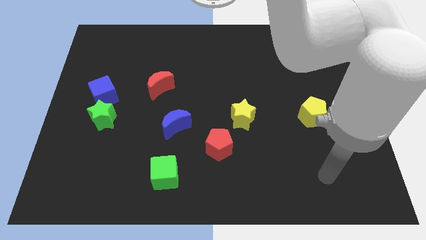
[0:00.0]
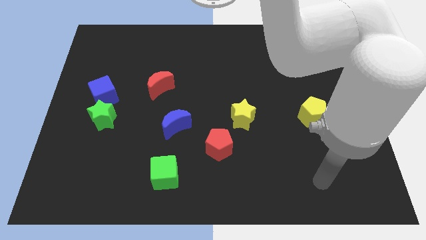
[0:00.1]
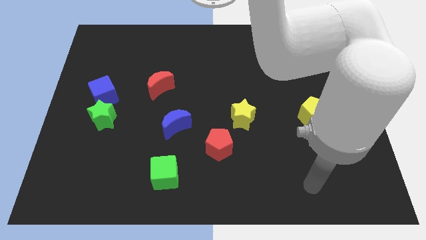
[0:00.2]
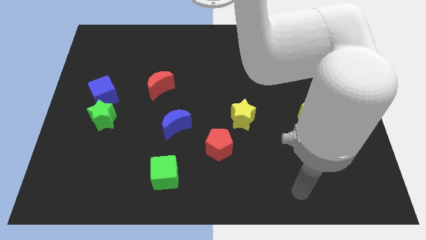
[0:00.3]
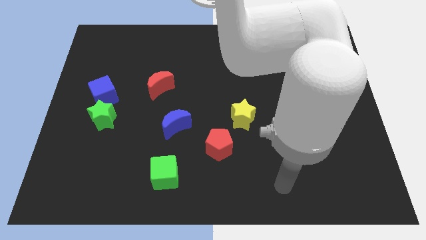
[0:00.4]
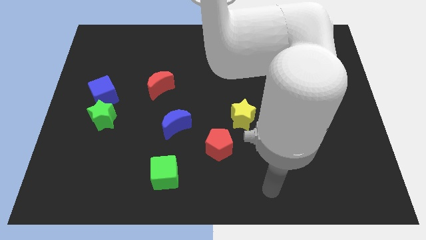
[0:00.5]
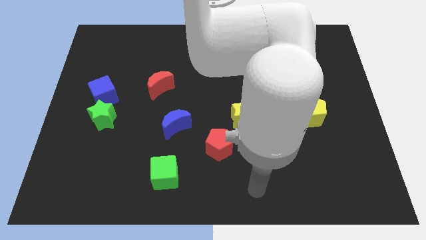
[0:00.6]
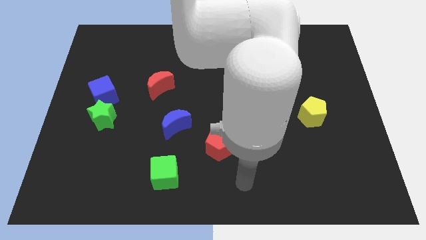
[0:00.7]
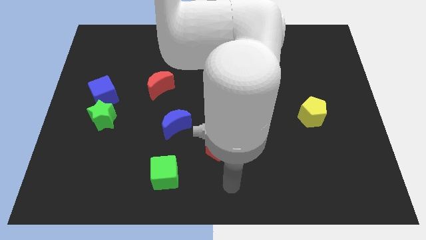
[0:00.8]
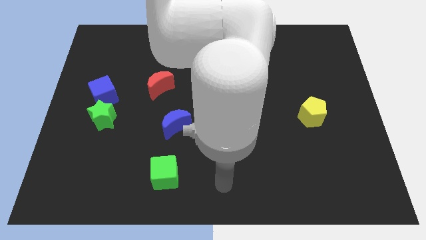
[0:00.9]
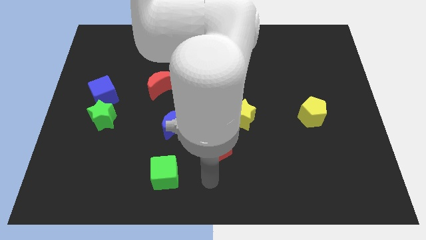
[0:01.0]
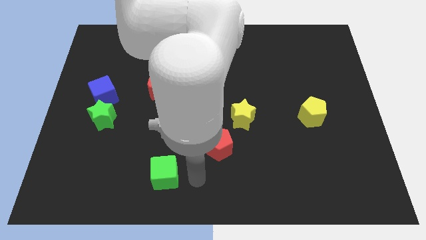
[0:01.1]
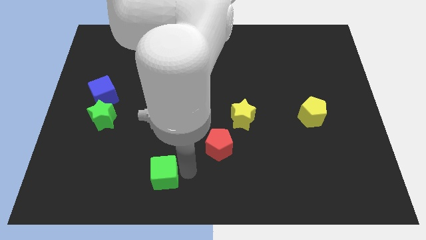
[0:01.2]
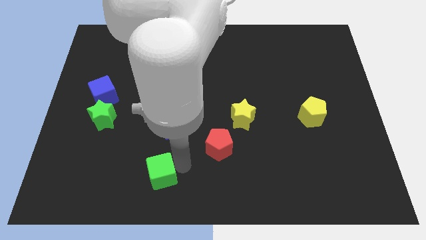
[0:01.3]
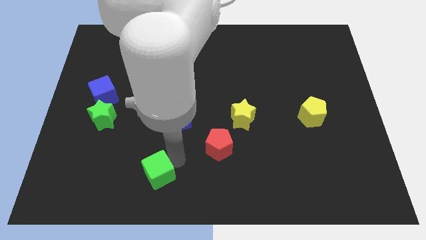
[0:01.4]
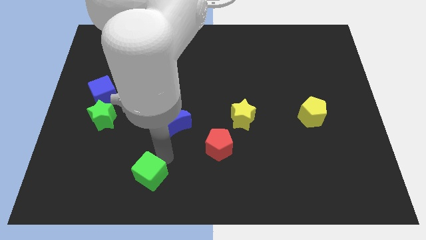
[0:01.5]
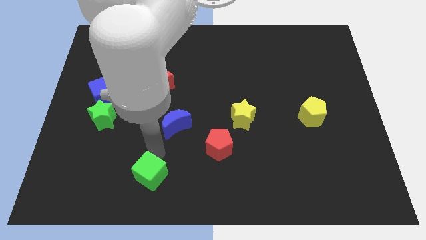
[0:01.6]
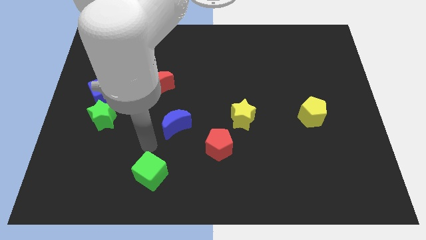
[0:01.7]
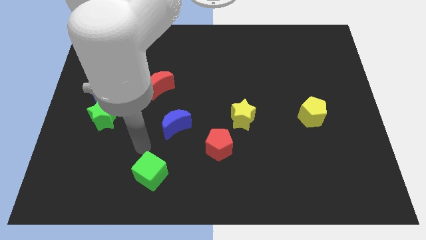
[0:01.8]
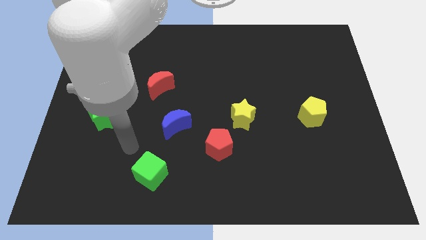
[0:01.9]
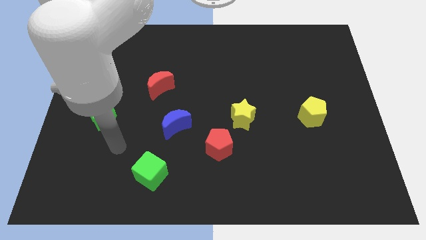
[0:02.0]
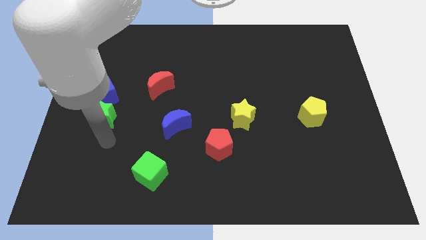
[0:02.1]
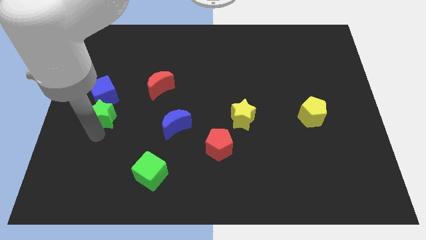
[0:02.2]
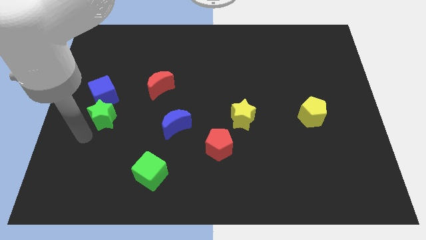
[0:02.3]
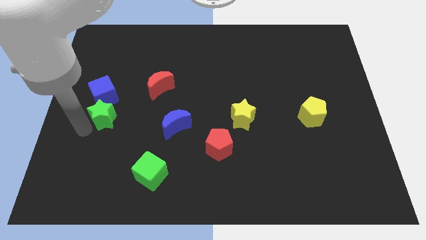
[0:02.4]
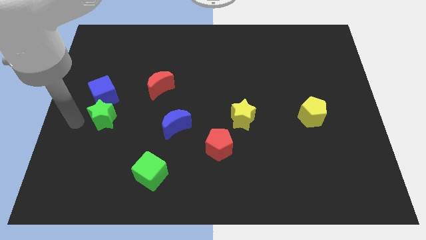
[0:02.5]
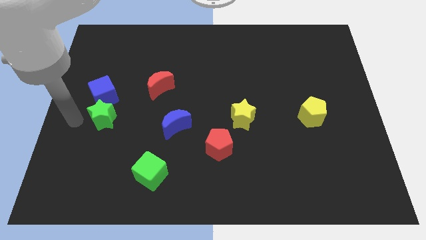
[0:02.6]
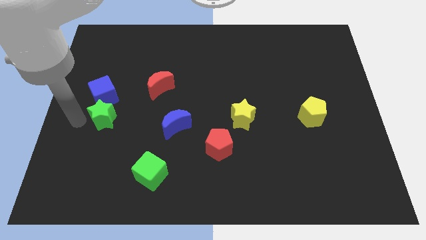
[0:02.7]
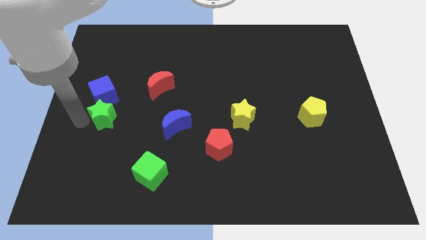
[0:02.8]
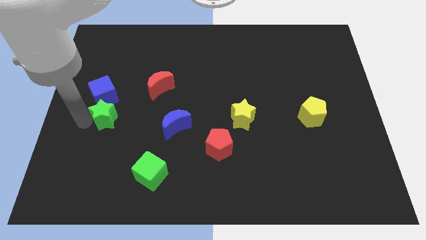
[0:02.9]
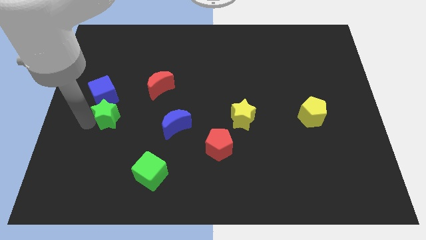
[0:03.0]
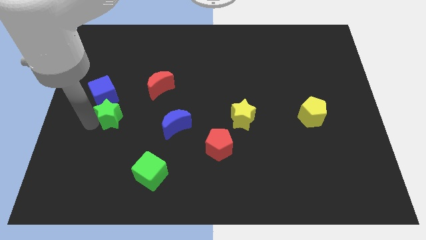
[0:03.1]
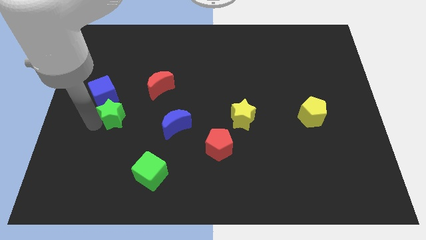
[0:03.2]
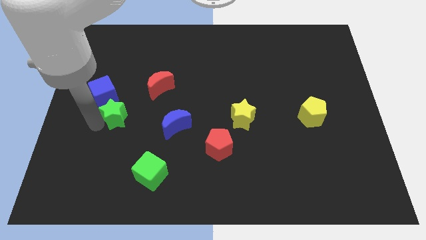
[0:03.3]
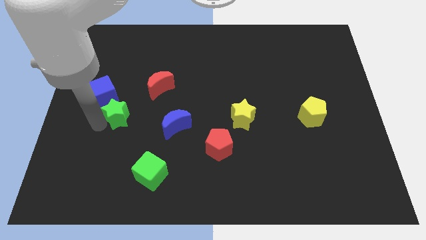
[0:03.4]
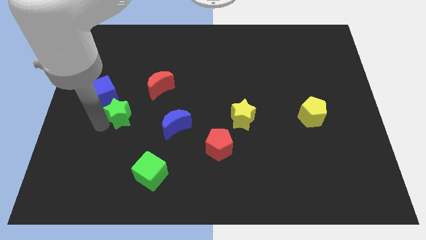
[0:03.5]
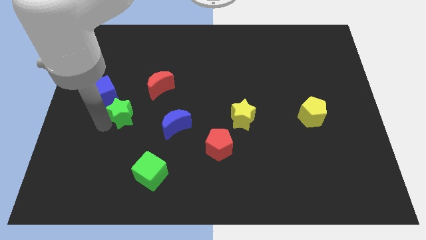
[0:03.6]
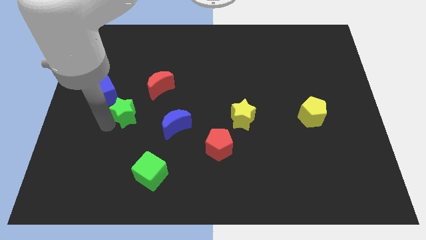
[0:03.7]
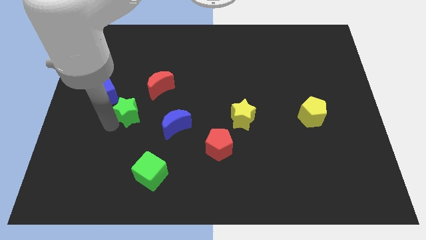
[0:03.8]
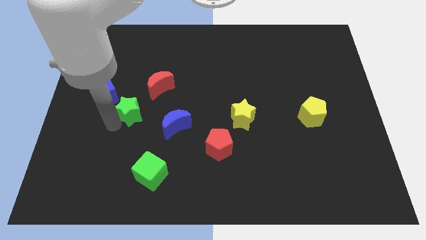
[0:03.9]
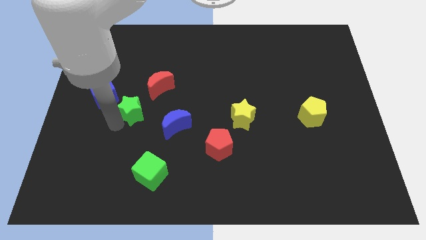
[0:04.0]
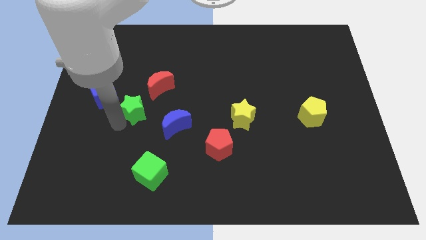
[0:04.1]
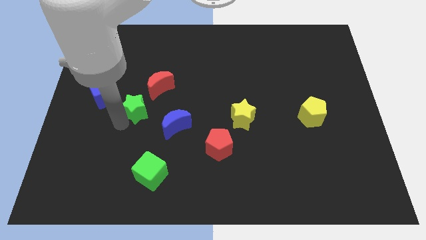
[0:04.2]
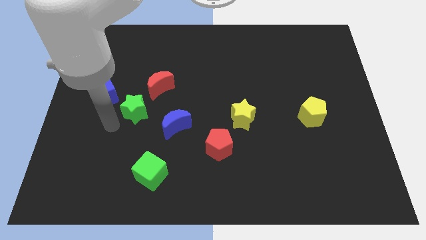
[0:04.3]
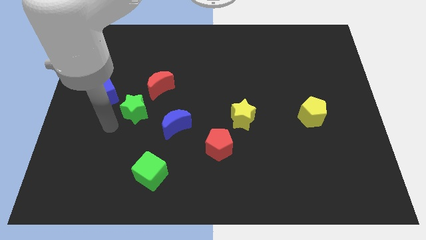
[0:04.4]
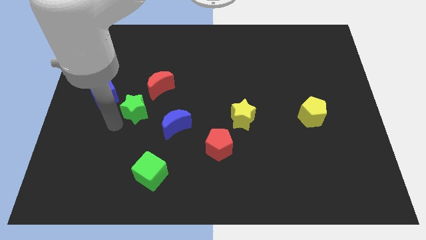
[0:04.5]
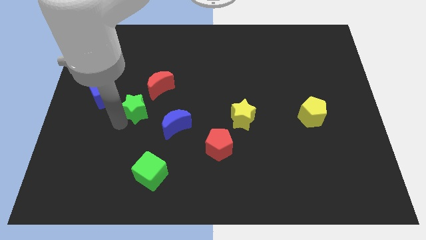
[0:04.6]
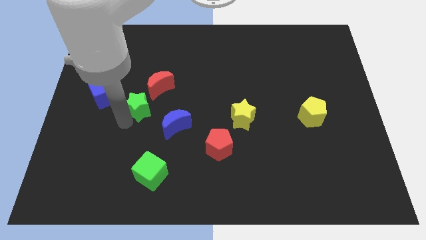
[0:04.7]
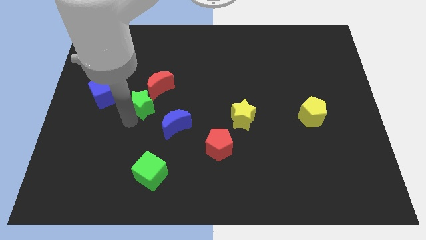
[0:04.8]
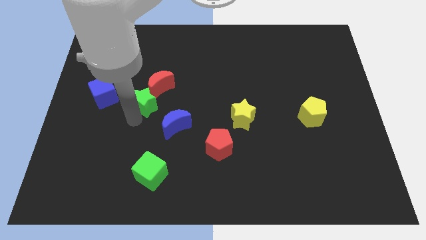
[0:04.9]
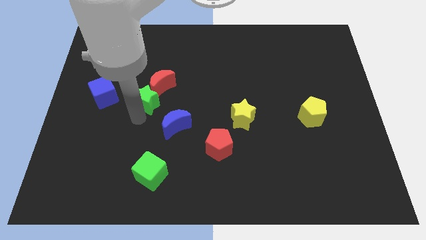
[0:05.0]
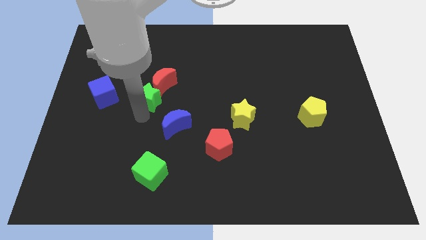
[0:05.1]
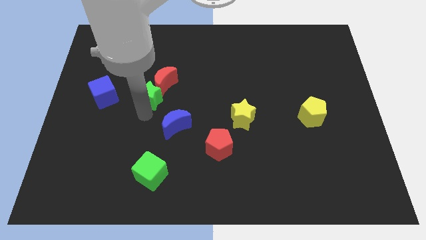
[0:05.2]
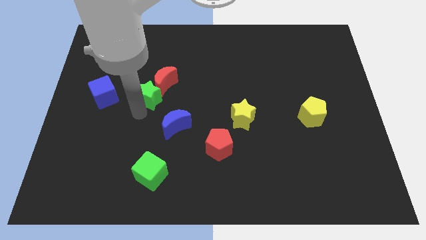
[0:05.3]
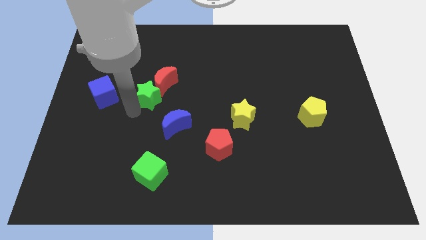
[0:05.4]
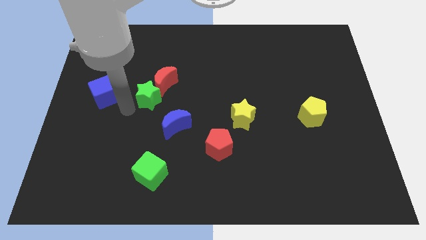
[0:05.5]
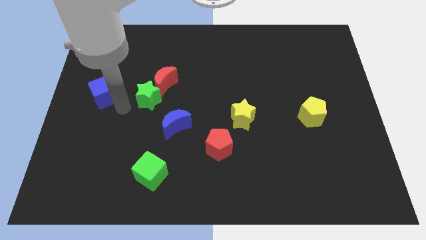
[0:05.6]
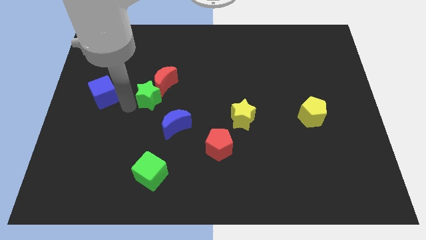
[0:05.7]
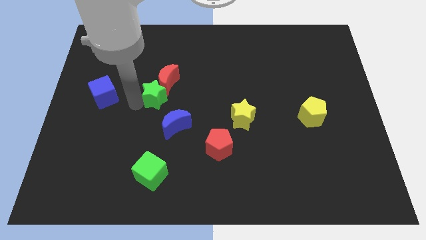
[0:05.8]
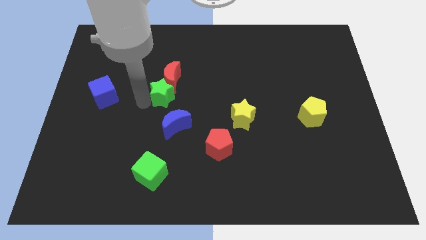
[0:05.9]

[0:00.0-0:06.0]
put the green star to the top of the blue moon

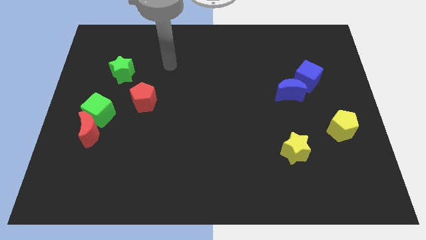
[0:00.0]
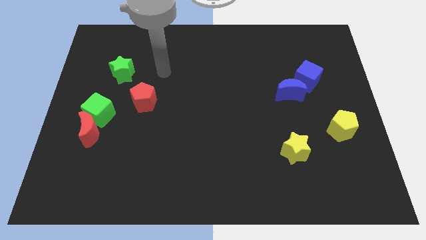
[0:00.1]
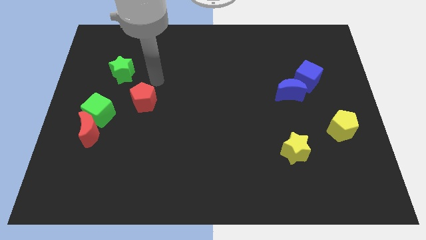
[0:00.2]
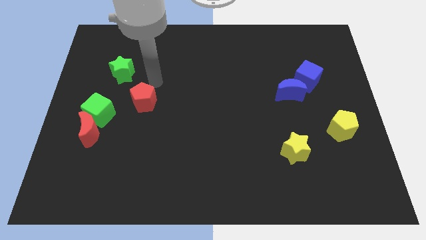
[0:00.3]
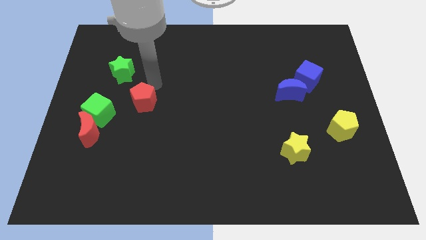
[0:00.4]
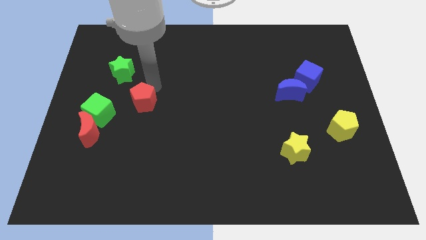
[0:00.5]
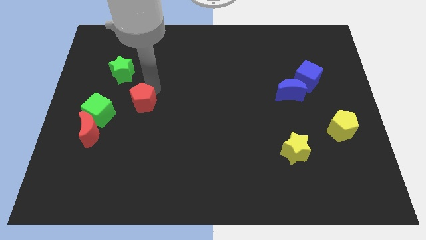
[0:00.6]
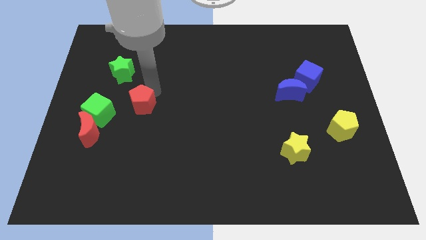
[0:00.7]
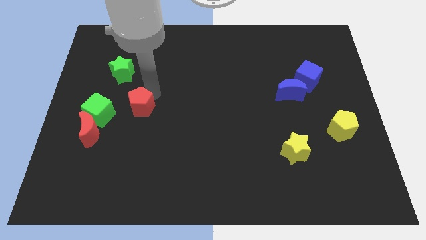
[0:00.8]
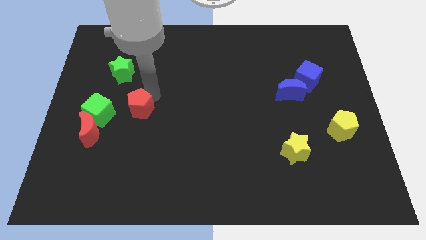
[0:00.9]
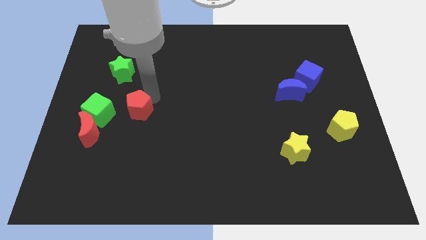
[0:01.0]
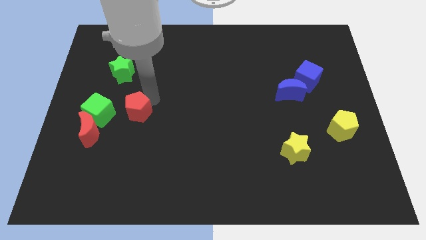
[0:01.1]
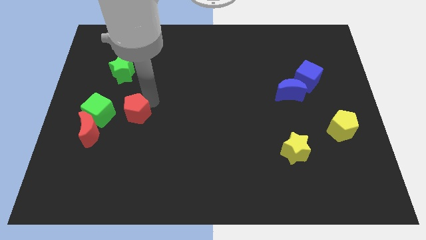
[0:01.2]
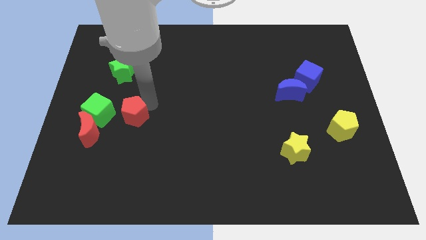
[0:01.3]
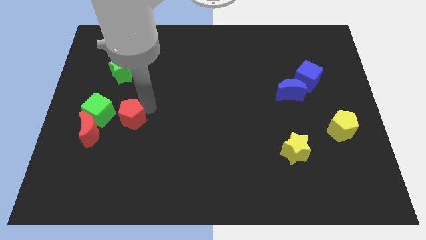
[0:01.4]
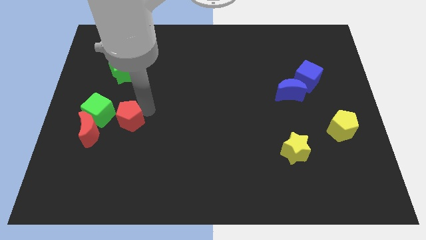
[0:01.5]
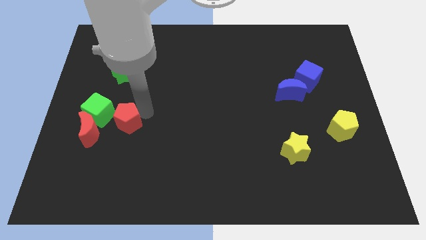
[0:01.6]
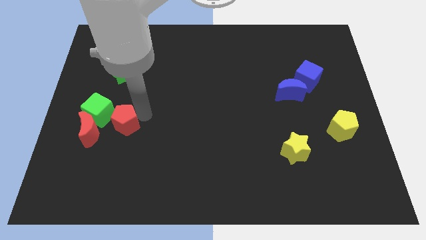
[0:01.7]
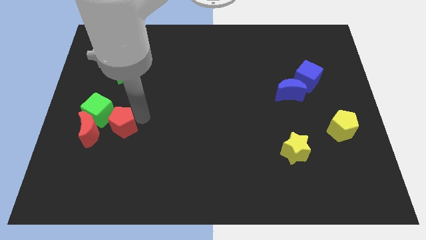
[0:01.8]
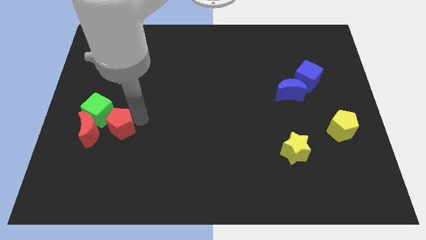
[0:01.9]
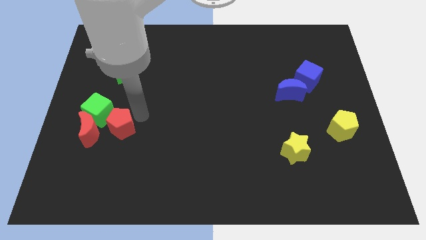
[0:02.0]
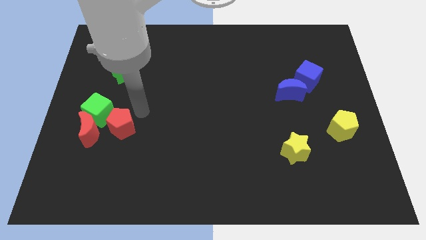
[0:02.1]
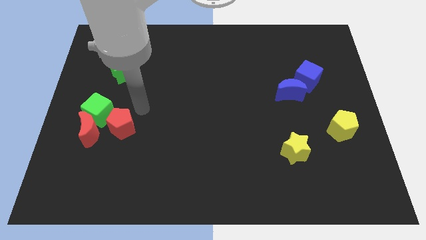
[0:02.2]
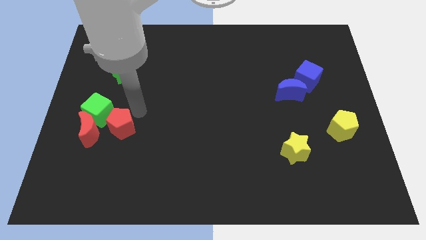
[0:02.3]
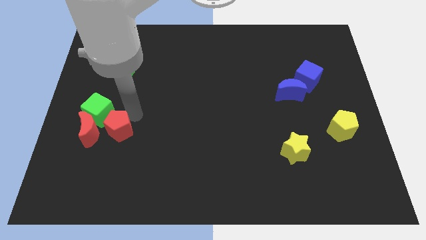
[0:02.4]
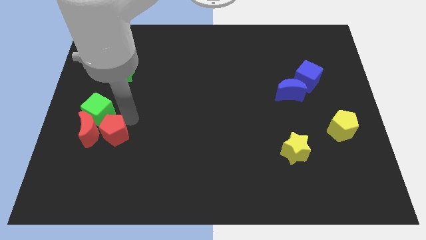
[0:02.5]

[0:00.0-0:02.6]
move the red pentagon to the bottom of the green cube
